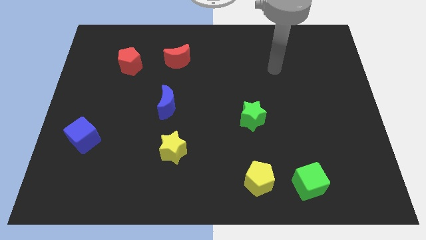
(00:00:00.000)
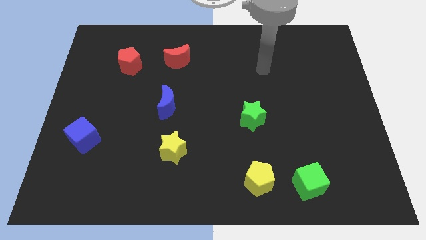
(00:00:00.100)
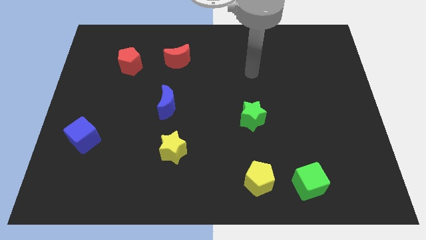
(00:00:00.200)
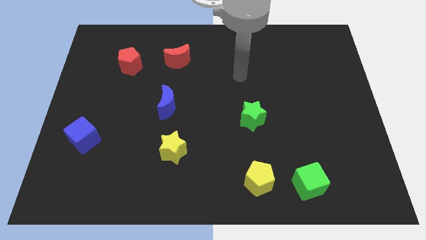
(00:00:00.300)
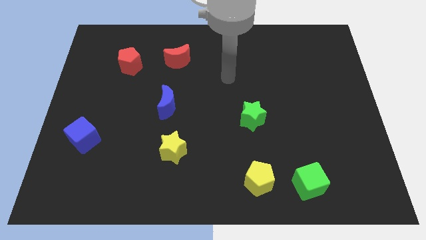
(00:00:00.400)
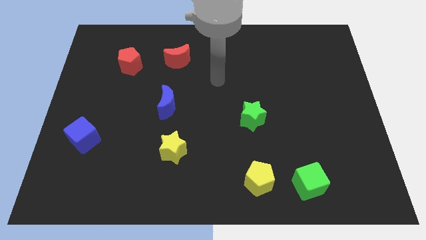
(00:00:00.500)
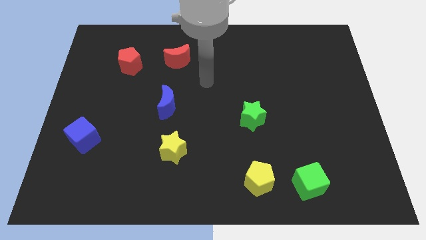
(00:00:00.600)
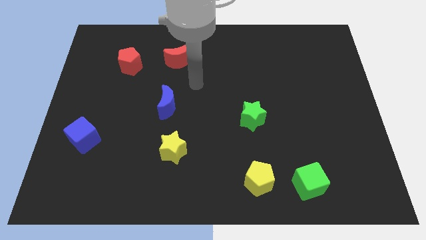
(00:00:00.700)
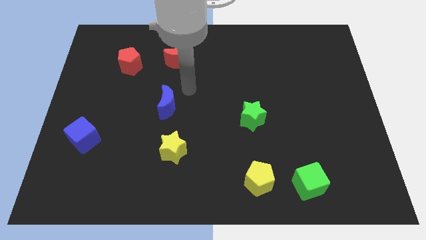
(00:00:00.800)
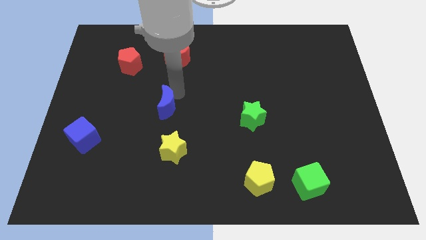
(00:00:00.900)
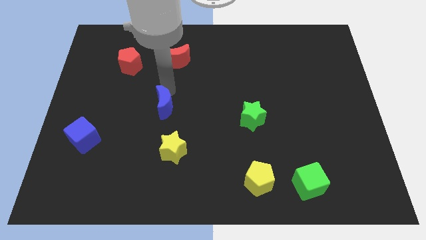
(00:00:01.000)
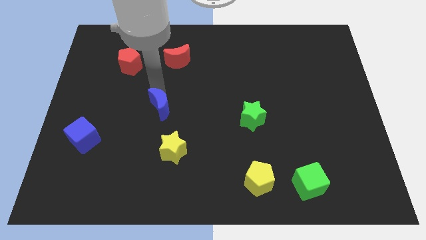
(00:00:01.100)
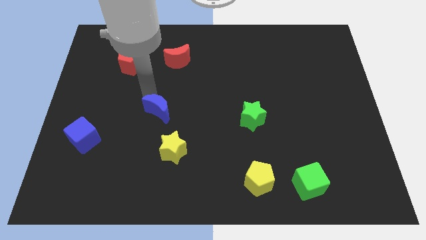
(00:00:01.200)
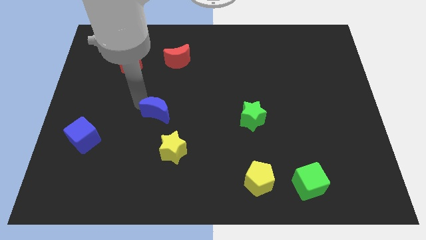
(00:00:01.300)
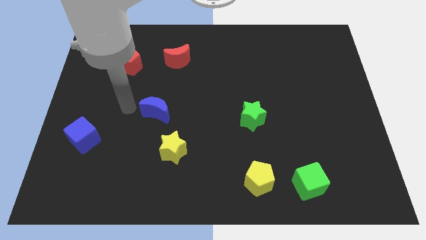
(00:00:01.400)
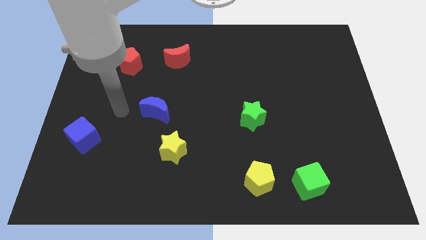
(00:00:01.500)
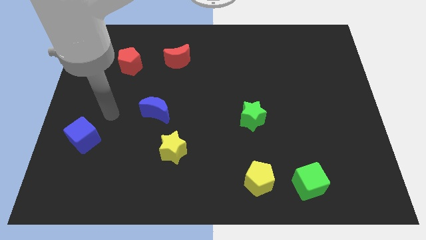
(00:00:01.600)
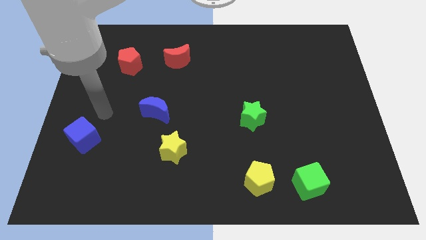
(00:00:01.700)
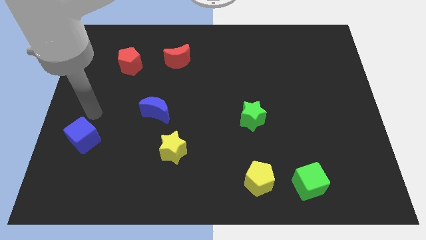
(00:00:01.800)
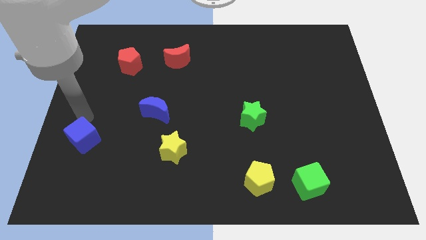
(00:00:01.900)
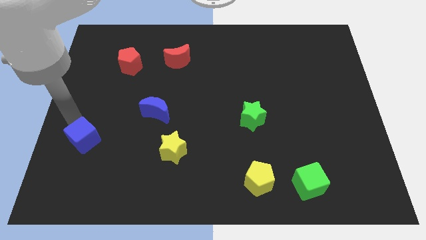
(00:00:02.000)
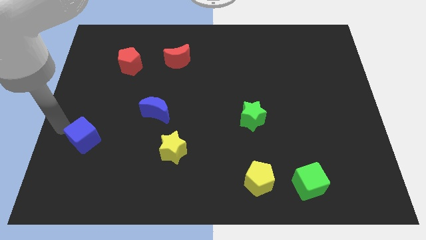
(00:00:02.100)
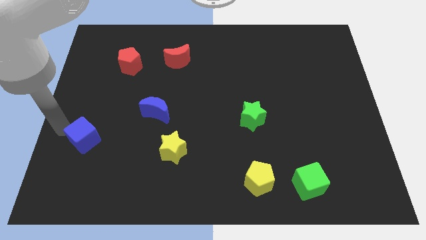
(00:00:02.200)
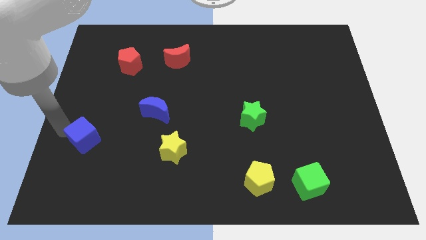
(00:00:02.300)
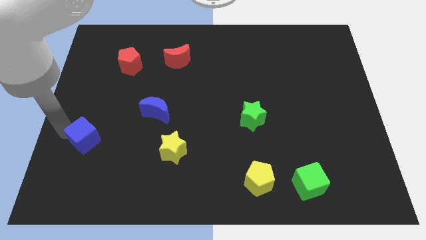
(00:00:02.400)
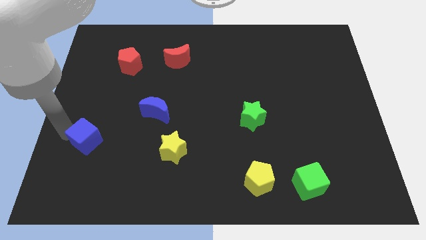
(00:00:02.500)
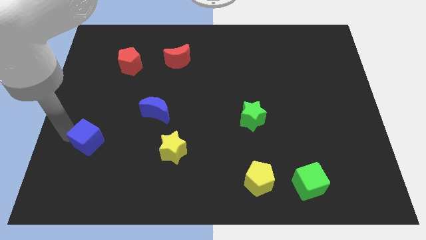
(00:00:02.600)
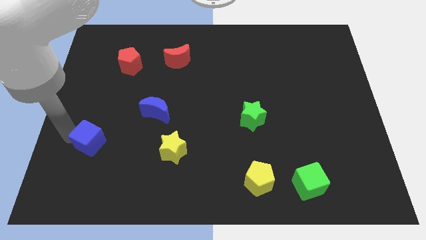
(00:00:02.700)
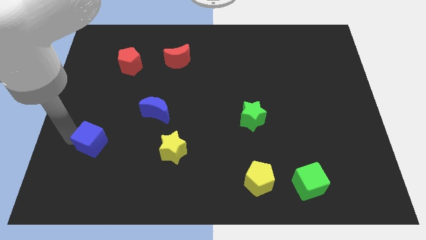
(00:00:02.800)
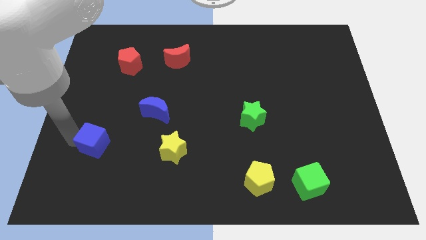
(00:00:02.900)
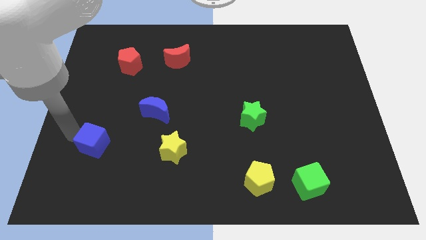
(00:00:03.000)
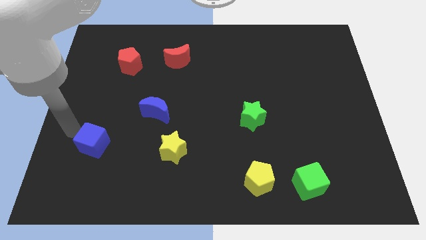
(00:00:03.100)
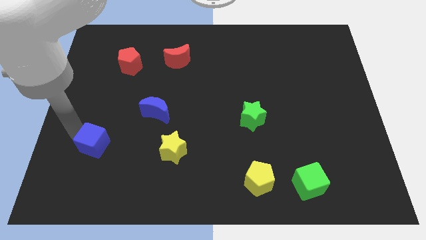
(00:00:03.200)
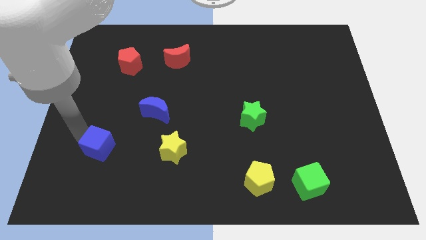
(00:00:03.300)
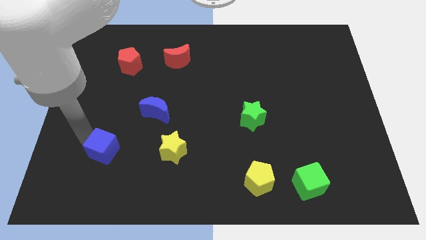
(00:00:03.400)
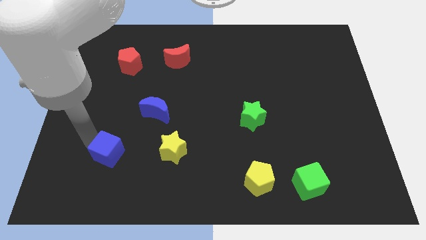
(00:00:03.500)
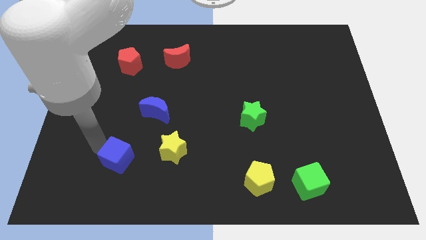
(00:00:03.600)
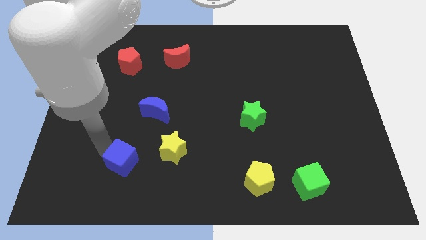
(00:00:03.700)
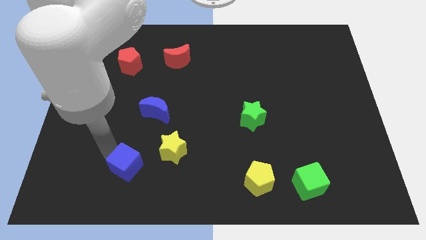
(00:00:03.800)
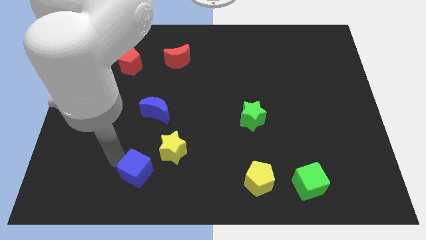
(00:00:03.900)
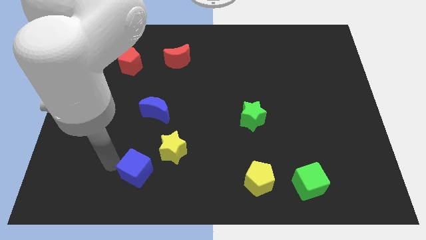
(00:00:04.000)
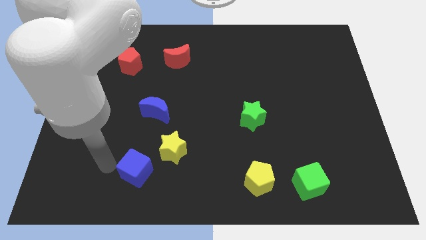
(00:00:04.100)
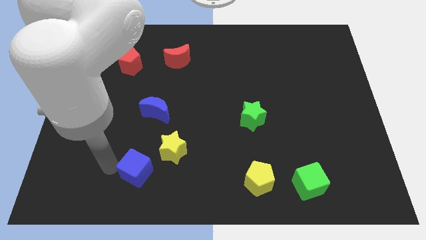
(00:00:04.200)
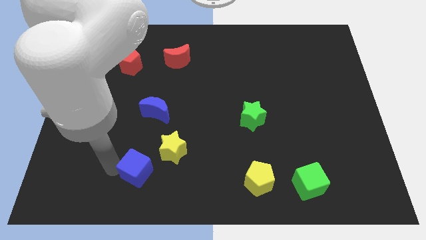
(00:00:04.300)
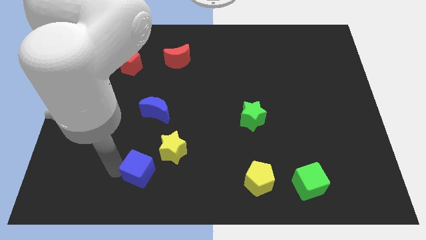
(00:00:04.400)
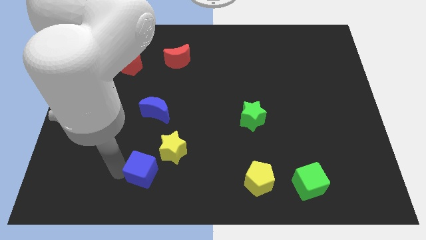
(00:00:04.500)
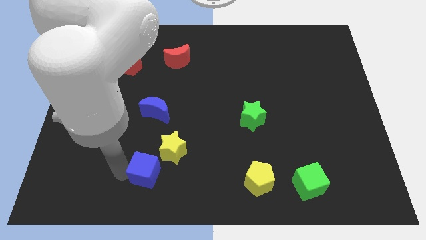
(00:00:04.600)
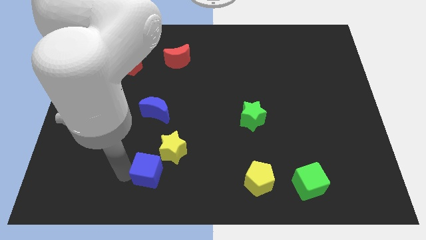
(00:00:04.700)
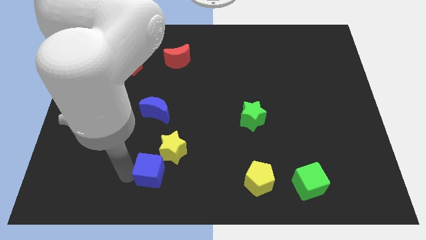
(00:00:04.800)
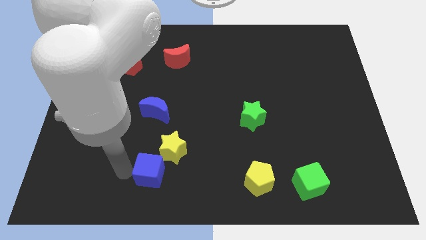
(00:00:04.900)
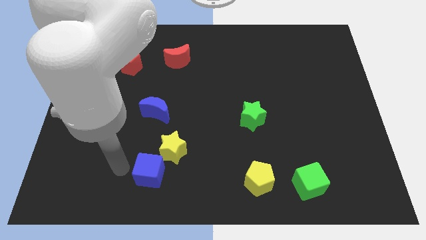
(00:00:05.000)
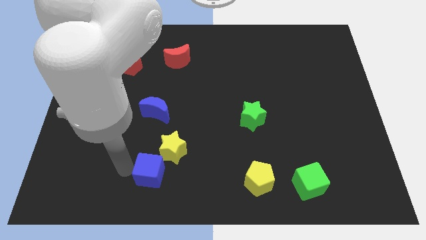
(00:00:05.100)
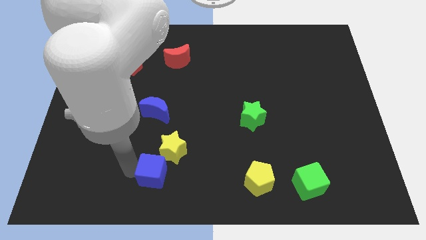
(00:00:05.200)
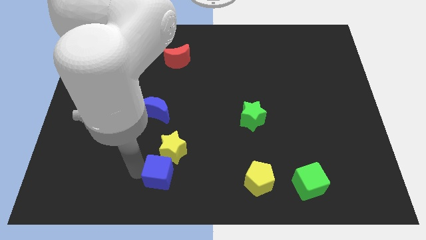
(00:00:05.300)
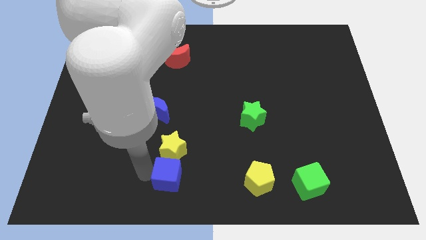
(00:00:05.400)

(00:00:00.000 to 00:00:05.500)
move the blue cube to the bottom right of the yellow star

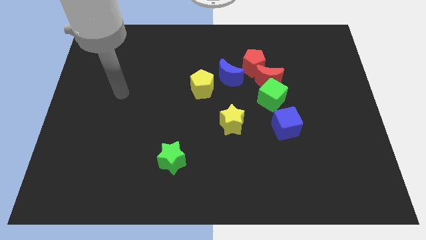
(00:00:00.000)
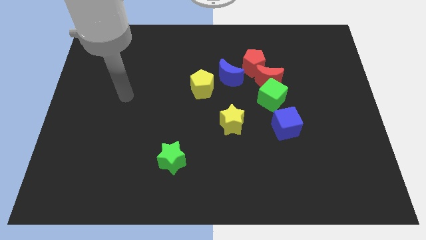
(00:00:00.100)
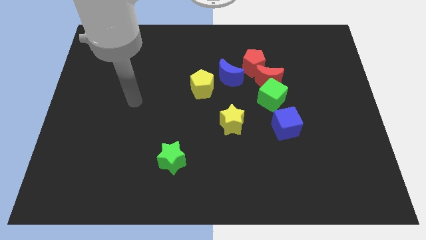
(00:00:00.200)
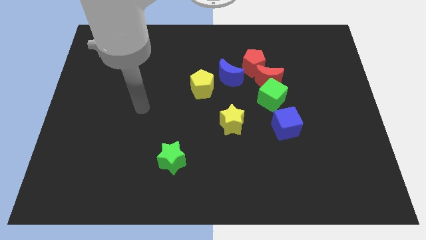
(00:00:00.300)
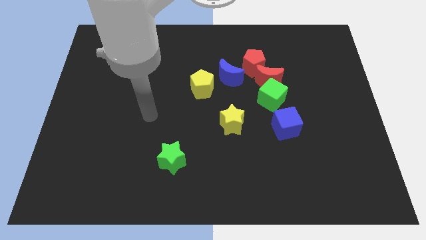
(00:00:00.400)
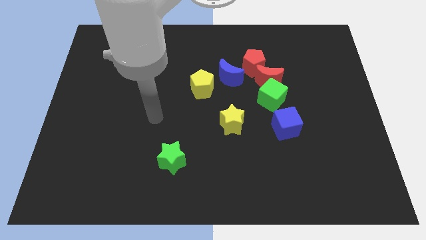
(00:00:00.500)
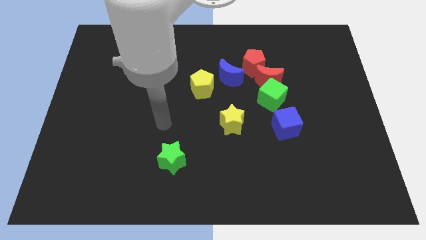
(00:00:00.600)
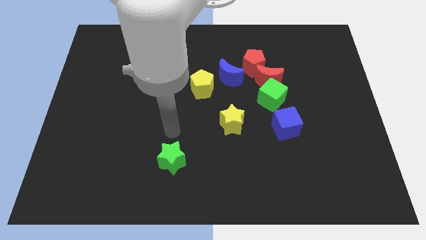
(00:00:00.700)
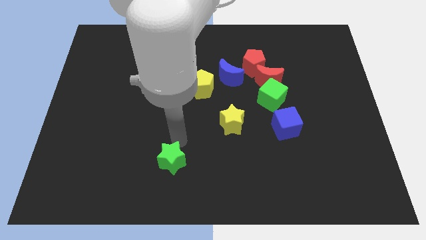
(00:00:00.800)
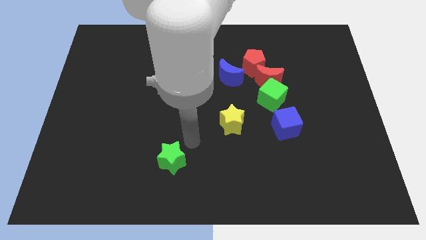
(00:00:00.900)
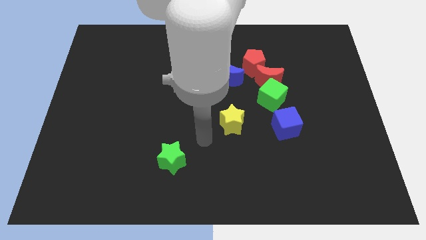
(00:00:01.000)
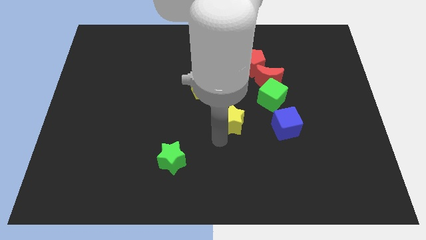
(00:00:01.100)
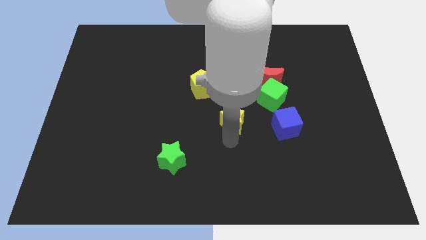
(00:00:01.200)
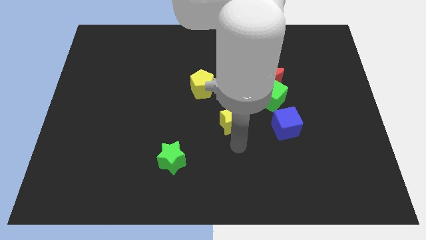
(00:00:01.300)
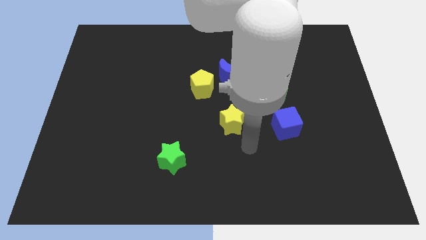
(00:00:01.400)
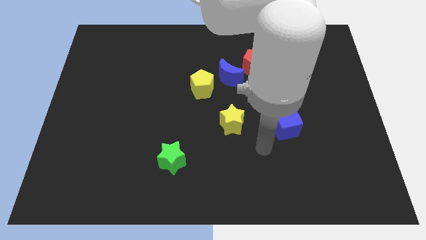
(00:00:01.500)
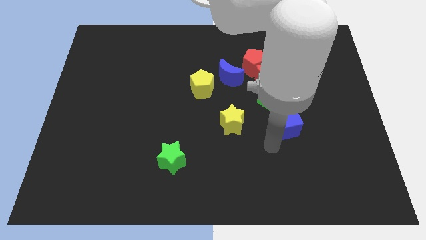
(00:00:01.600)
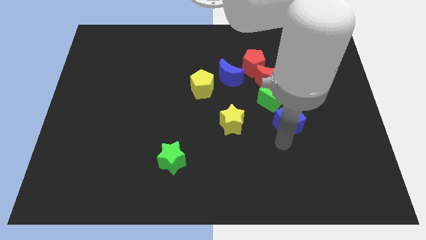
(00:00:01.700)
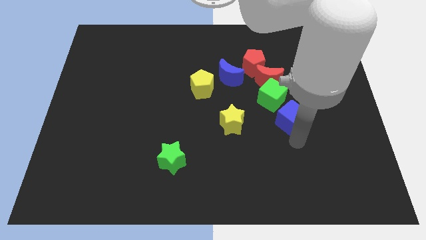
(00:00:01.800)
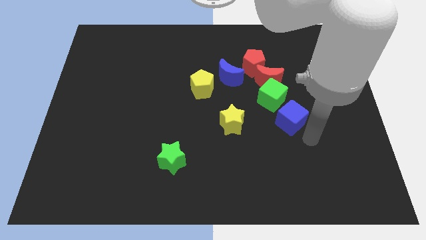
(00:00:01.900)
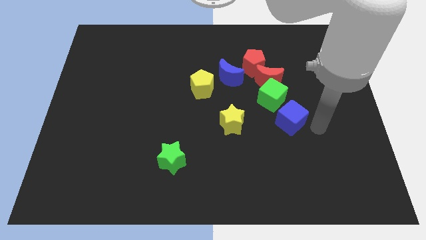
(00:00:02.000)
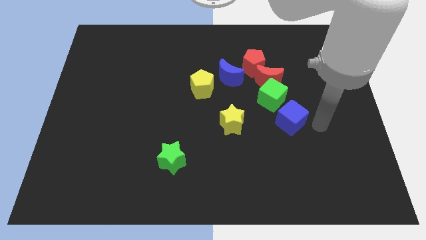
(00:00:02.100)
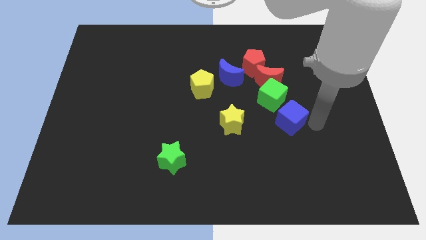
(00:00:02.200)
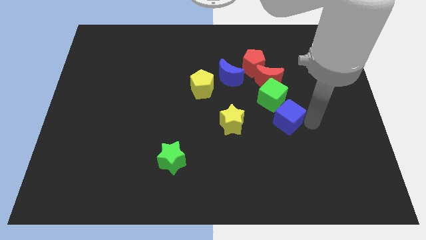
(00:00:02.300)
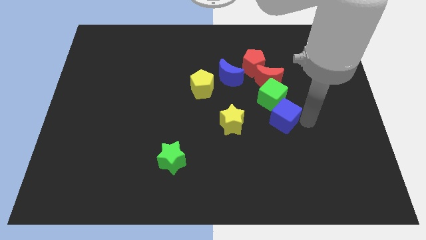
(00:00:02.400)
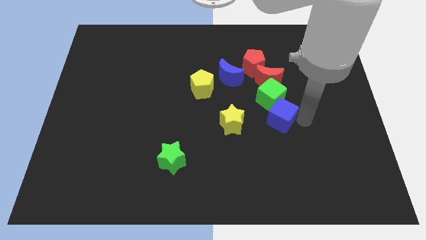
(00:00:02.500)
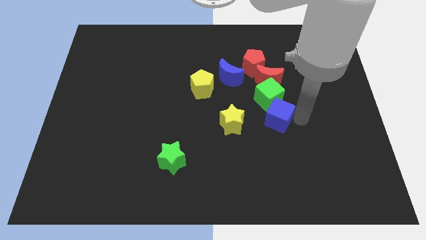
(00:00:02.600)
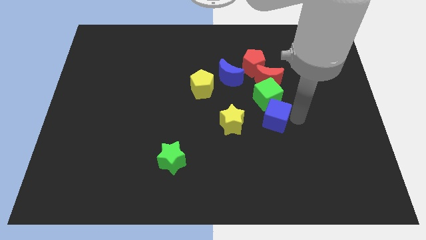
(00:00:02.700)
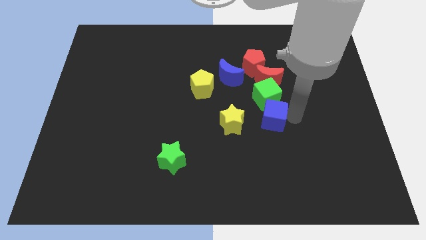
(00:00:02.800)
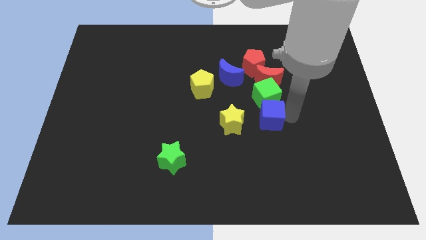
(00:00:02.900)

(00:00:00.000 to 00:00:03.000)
push the blue cube to the bottom left of the green cube

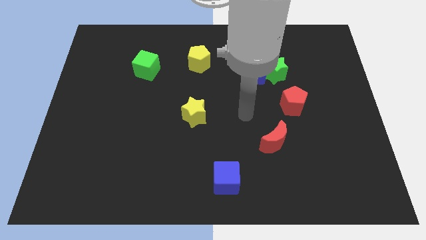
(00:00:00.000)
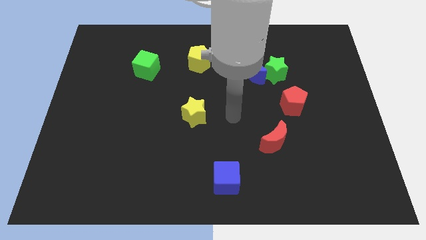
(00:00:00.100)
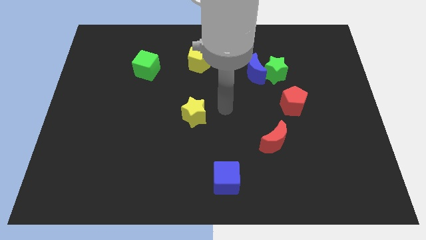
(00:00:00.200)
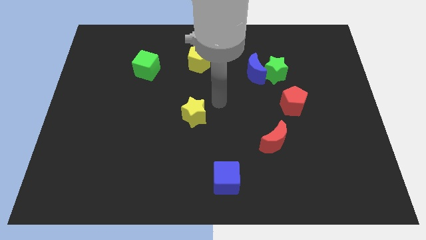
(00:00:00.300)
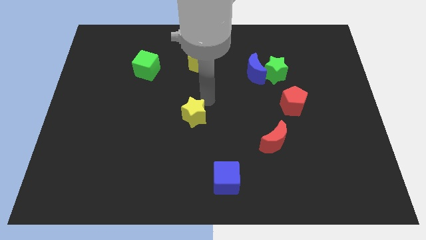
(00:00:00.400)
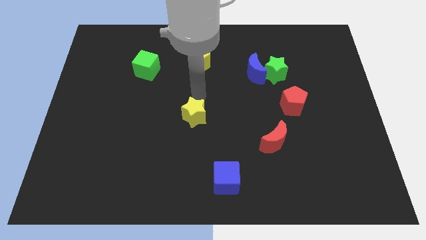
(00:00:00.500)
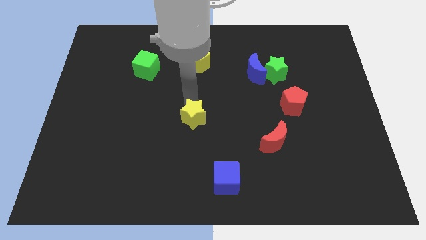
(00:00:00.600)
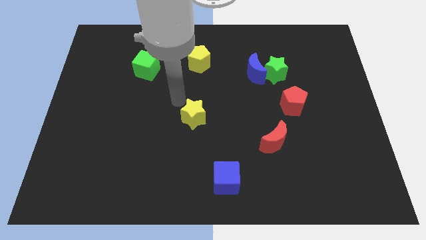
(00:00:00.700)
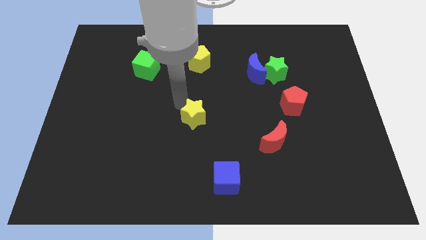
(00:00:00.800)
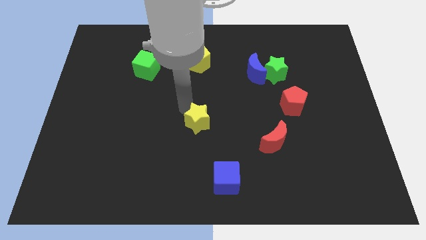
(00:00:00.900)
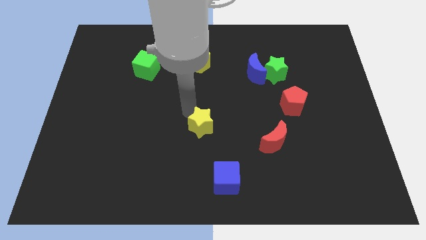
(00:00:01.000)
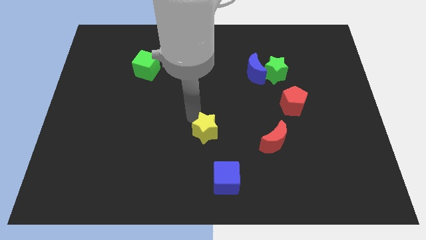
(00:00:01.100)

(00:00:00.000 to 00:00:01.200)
move the yellow star just left of the red moon
